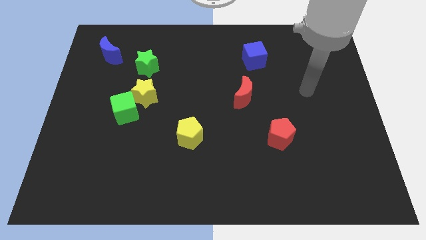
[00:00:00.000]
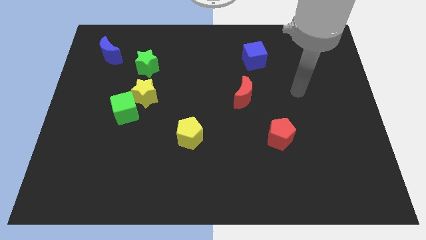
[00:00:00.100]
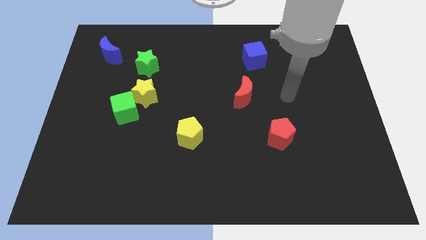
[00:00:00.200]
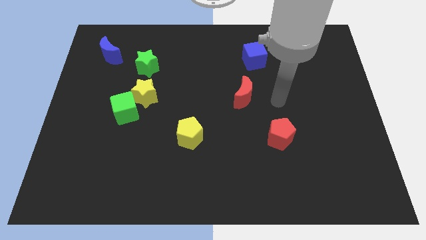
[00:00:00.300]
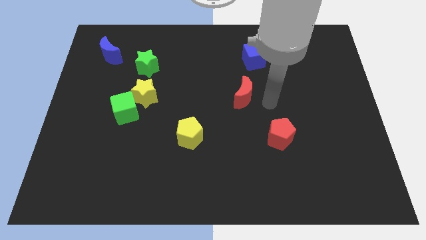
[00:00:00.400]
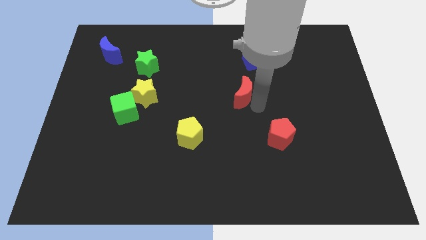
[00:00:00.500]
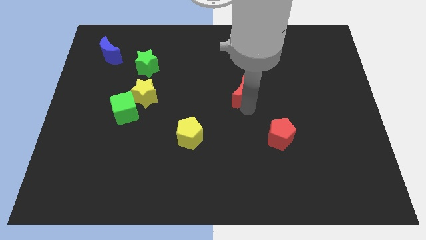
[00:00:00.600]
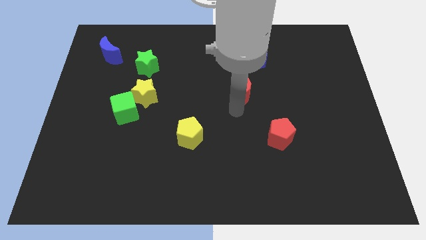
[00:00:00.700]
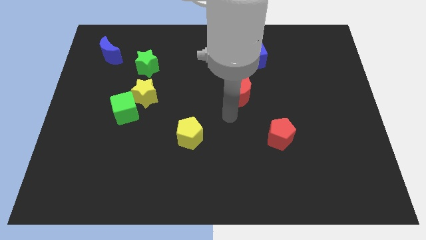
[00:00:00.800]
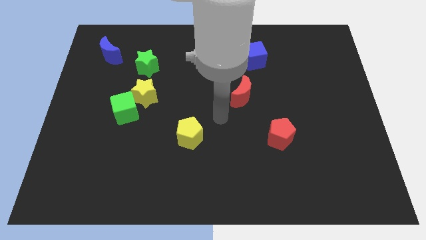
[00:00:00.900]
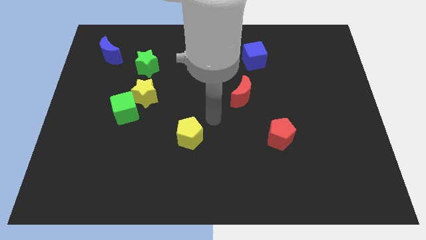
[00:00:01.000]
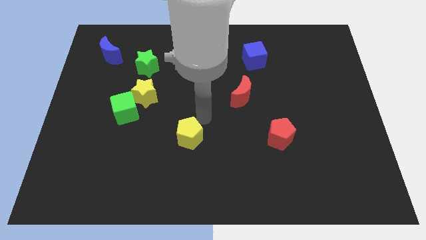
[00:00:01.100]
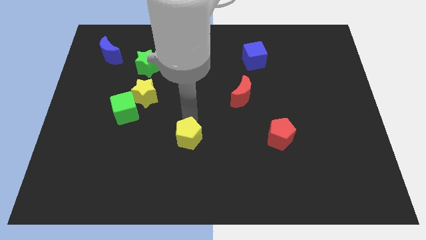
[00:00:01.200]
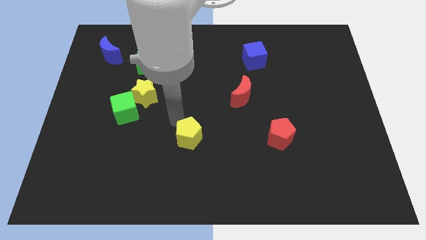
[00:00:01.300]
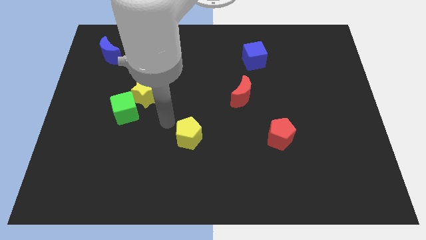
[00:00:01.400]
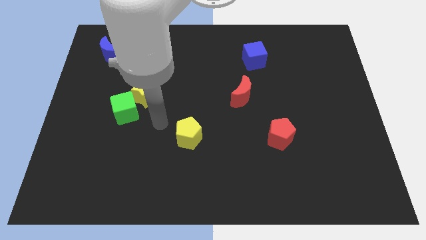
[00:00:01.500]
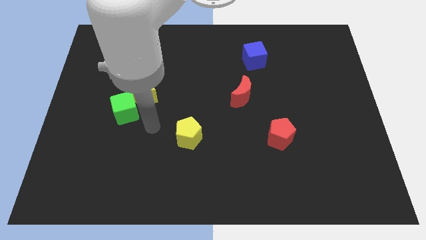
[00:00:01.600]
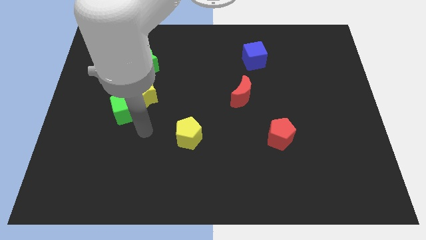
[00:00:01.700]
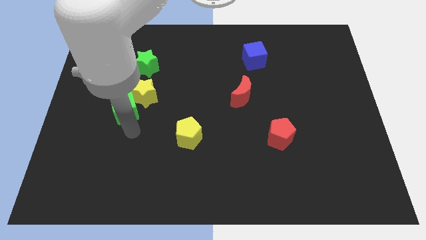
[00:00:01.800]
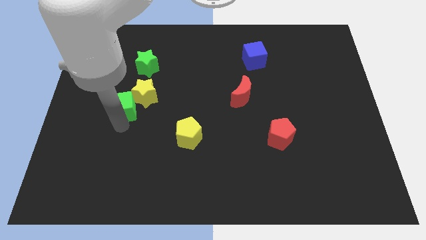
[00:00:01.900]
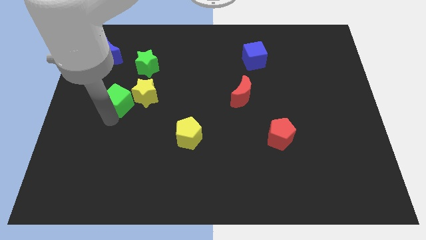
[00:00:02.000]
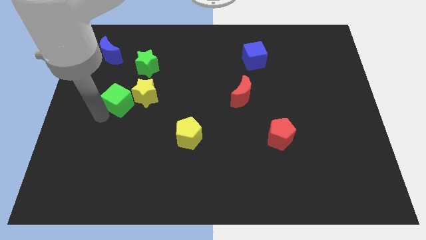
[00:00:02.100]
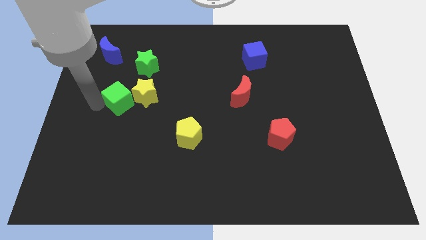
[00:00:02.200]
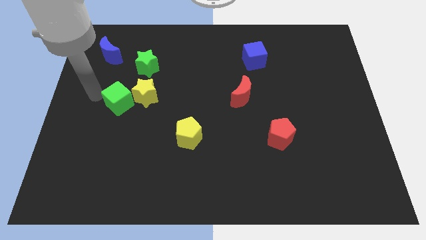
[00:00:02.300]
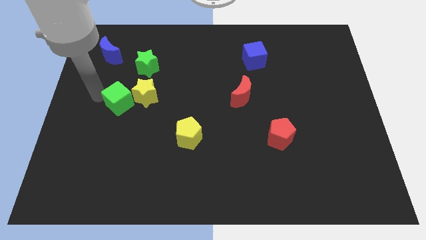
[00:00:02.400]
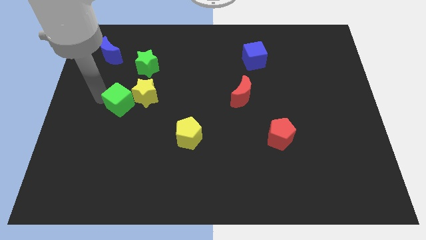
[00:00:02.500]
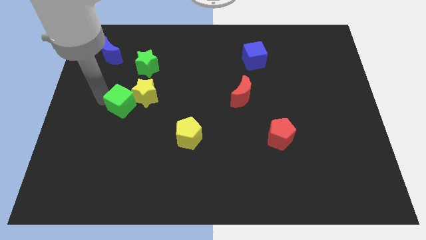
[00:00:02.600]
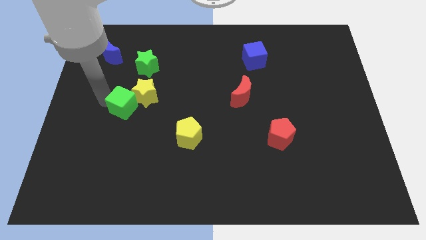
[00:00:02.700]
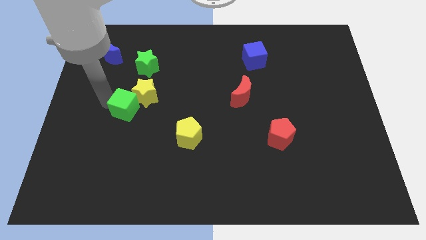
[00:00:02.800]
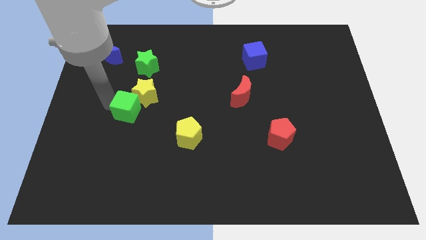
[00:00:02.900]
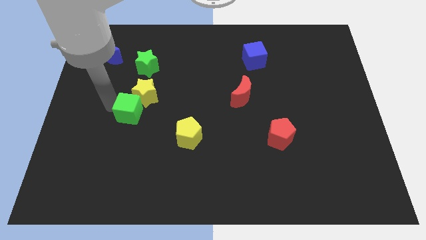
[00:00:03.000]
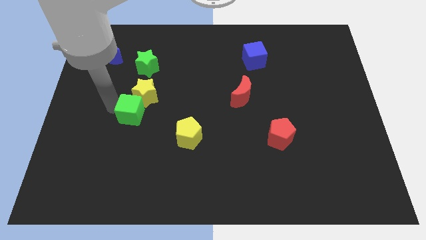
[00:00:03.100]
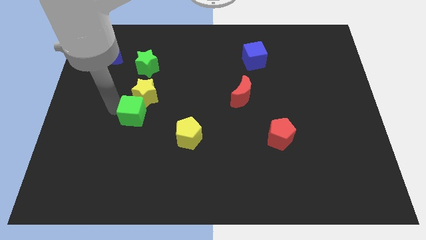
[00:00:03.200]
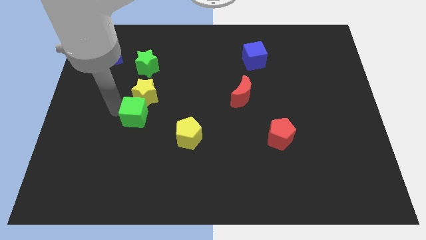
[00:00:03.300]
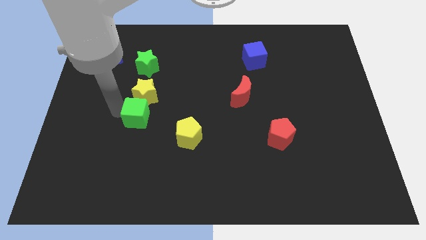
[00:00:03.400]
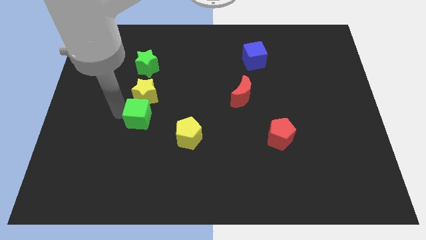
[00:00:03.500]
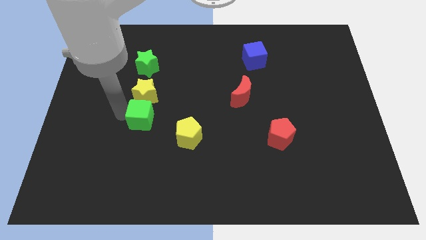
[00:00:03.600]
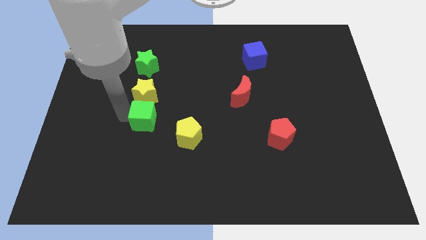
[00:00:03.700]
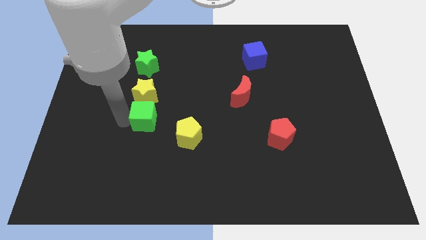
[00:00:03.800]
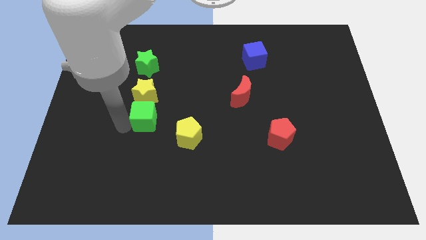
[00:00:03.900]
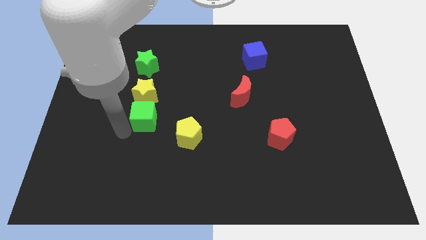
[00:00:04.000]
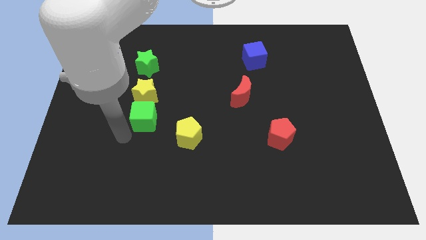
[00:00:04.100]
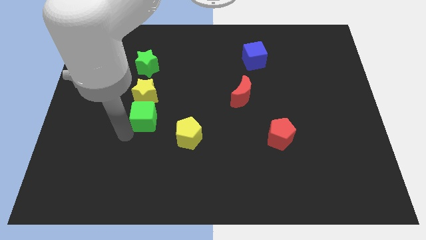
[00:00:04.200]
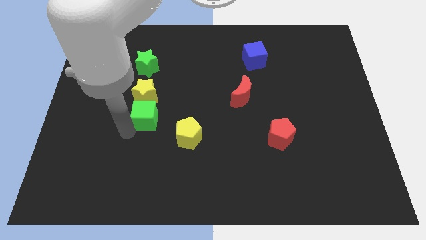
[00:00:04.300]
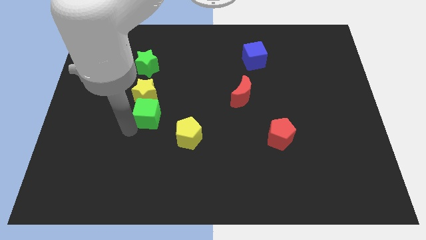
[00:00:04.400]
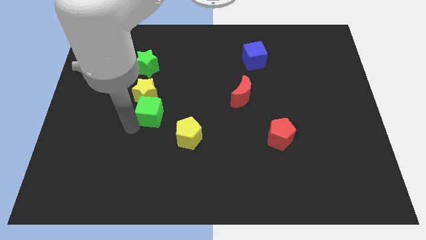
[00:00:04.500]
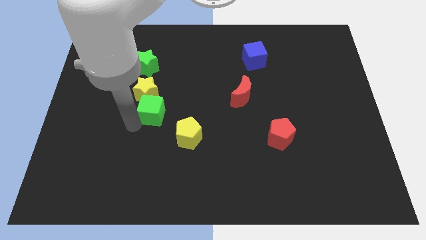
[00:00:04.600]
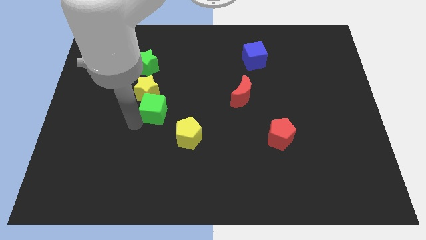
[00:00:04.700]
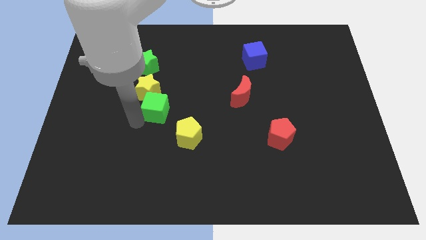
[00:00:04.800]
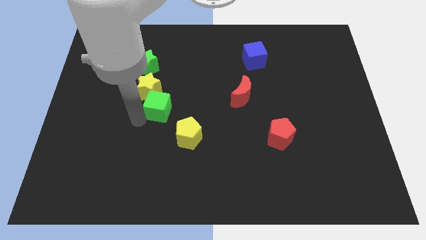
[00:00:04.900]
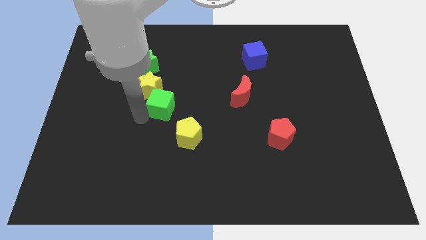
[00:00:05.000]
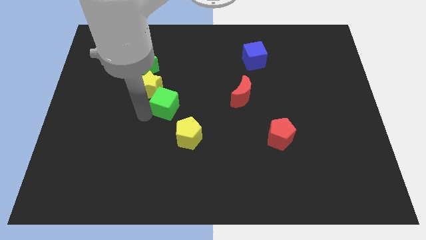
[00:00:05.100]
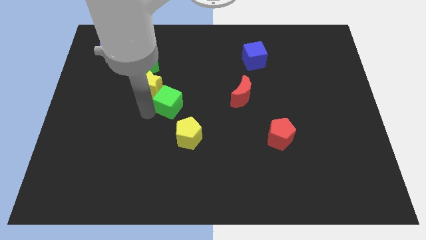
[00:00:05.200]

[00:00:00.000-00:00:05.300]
slightly move the green cube upwards and to the right diagonally

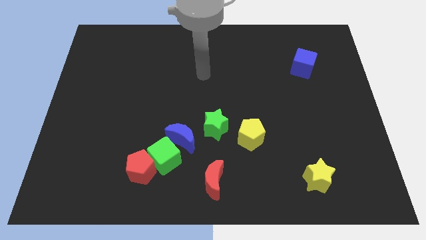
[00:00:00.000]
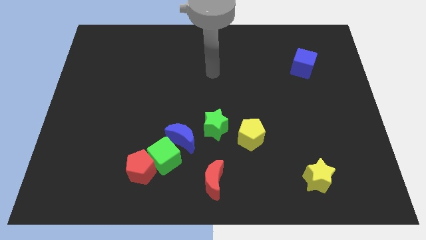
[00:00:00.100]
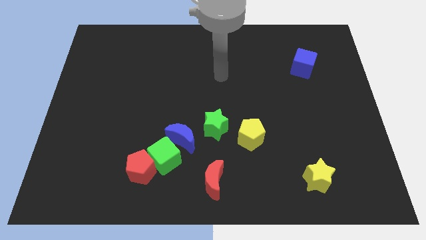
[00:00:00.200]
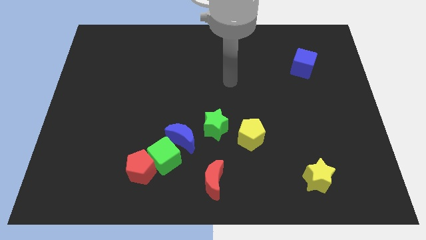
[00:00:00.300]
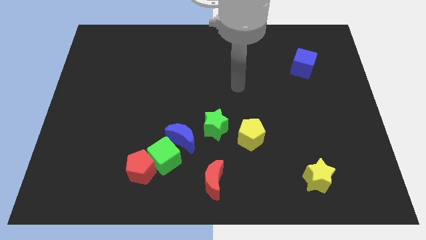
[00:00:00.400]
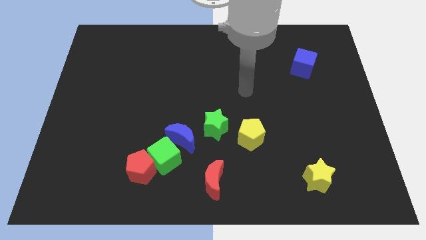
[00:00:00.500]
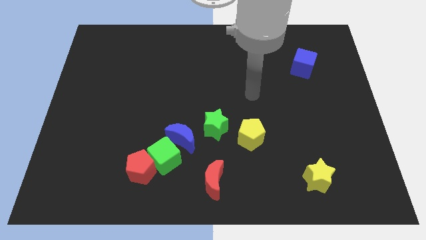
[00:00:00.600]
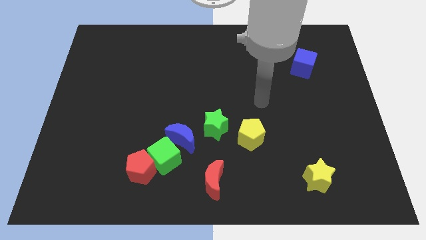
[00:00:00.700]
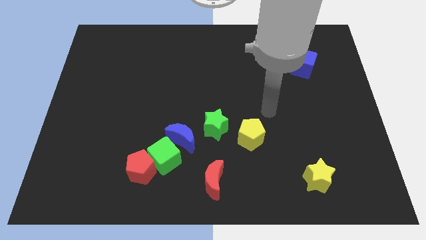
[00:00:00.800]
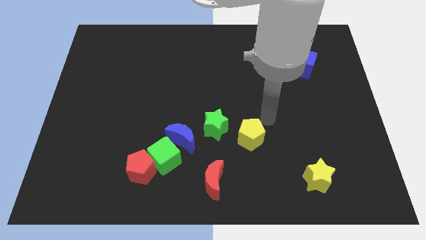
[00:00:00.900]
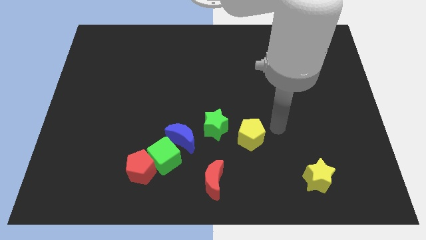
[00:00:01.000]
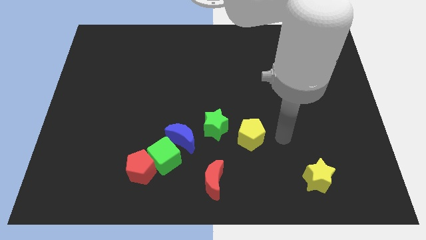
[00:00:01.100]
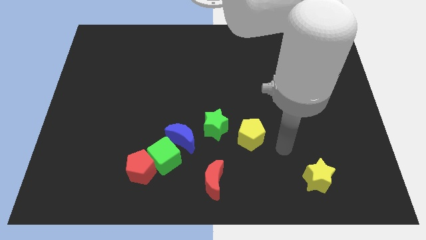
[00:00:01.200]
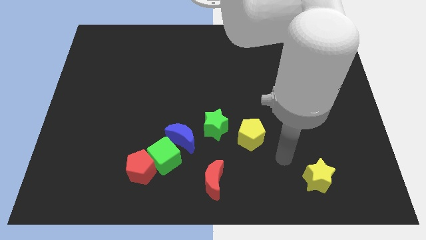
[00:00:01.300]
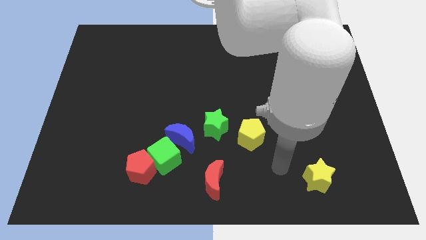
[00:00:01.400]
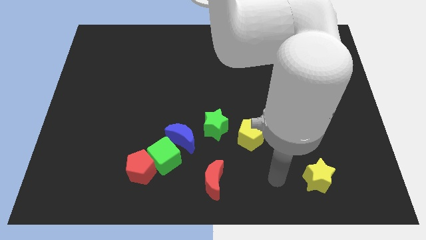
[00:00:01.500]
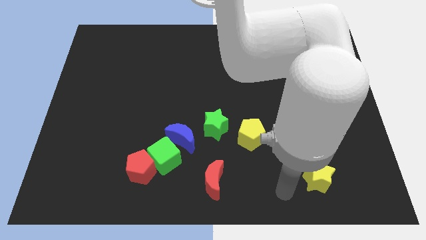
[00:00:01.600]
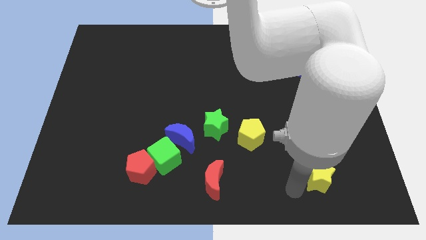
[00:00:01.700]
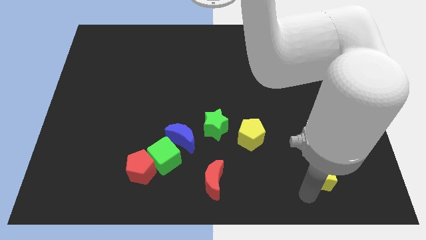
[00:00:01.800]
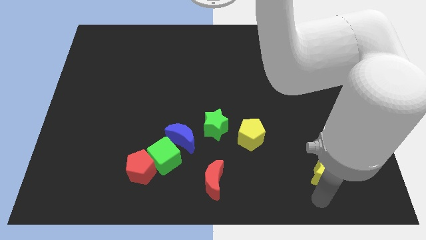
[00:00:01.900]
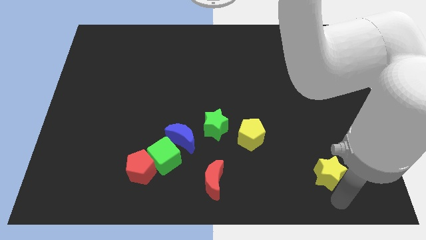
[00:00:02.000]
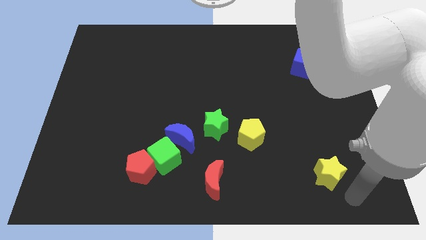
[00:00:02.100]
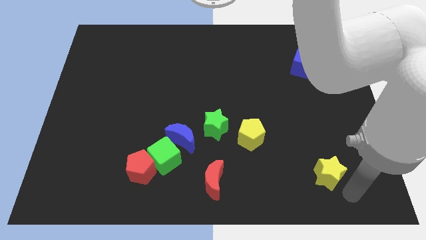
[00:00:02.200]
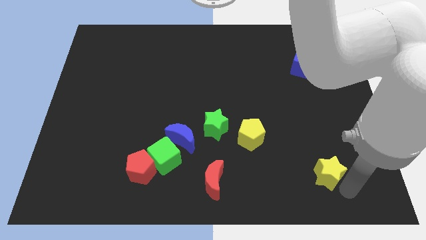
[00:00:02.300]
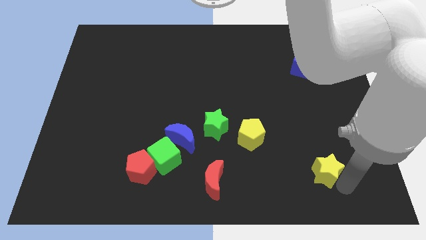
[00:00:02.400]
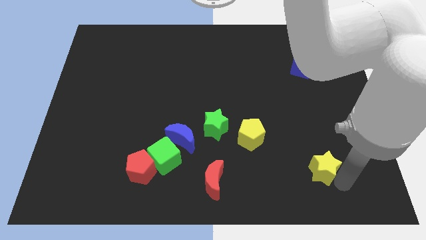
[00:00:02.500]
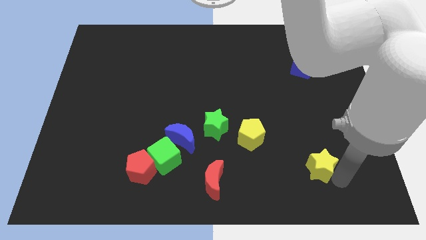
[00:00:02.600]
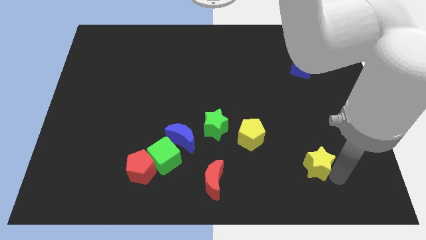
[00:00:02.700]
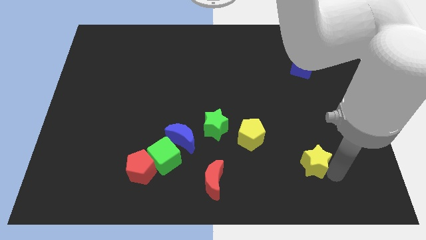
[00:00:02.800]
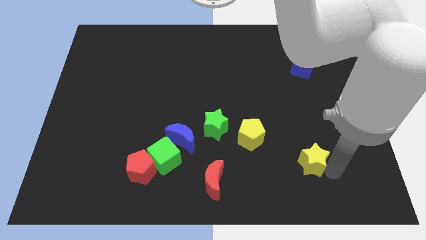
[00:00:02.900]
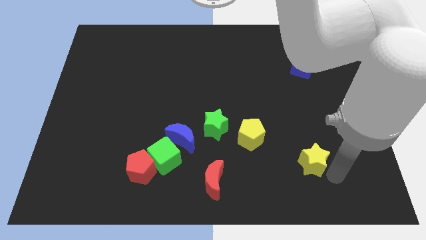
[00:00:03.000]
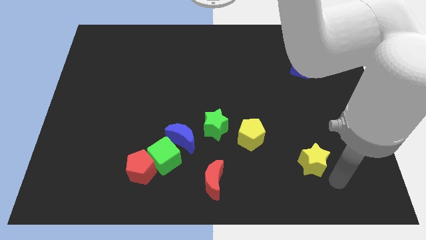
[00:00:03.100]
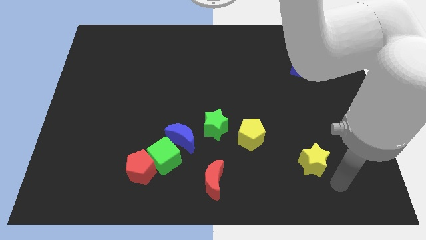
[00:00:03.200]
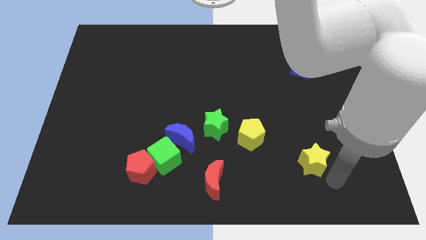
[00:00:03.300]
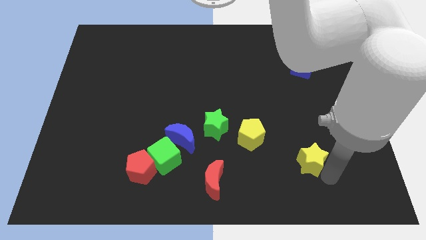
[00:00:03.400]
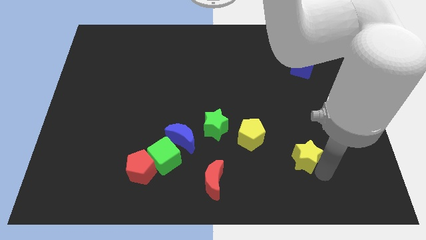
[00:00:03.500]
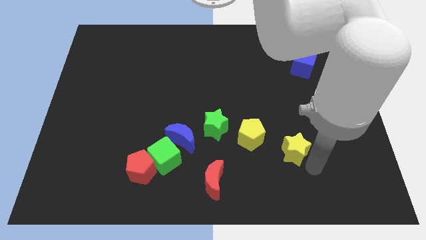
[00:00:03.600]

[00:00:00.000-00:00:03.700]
move the yellow star a bit up and to the left
